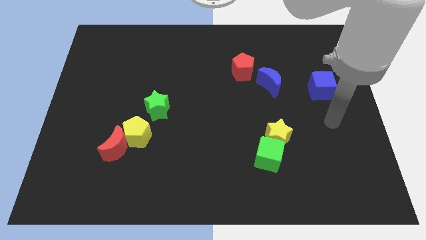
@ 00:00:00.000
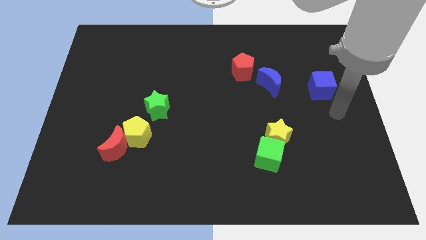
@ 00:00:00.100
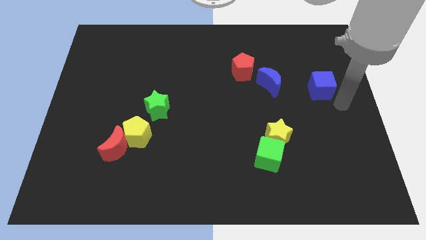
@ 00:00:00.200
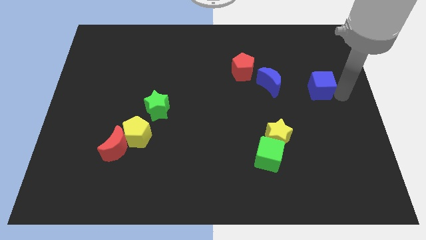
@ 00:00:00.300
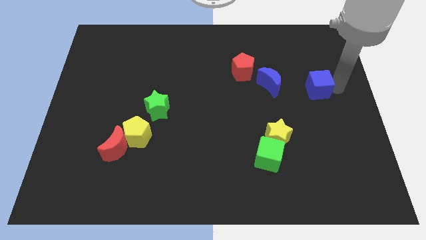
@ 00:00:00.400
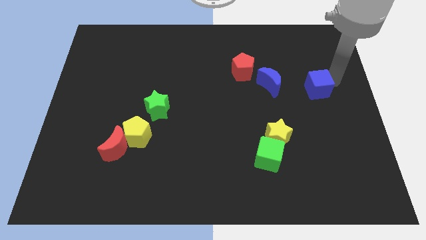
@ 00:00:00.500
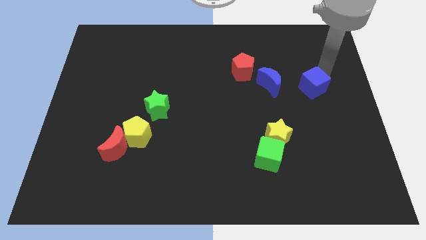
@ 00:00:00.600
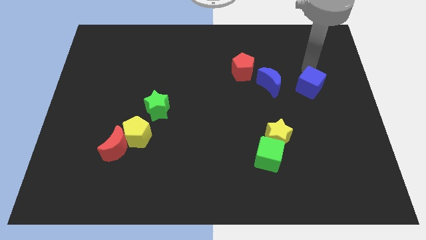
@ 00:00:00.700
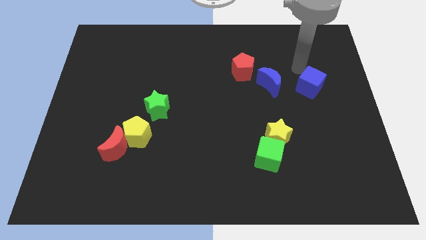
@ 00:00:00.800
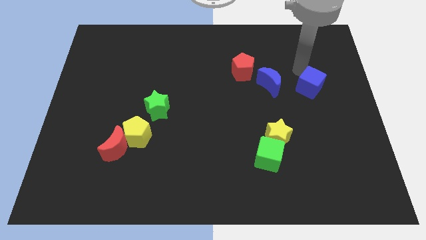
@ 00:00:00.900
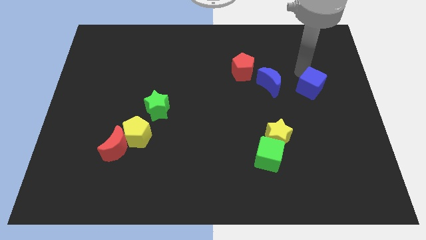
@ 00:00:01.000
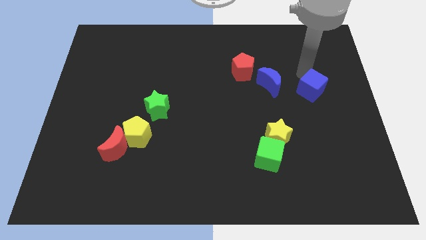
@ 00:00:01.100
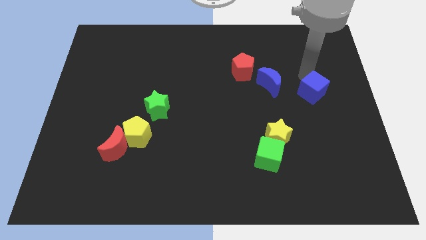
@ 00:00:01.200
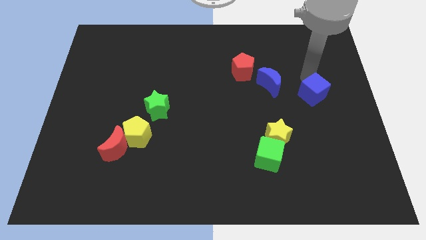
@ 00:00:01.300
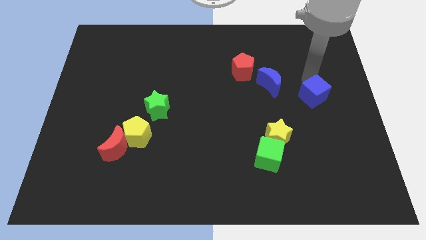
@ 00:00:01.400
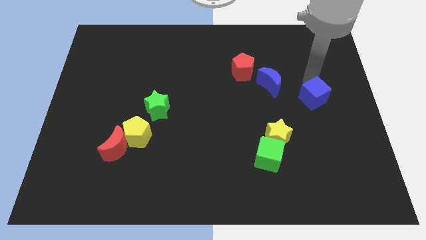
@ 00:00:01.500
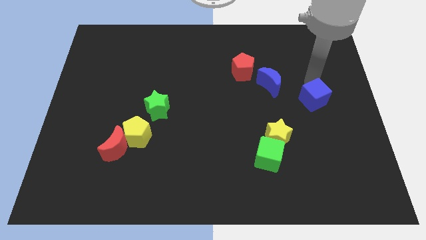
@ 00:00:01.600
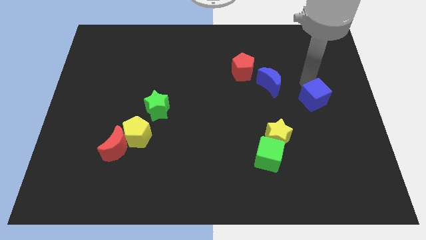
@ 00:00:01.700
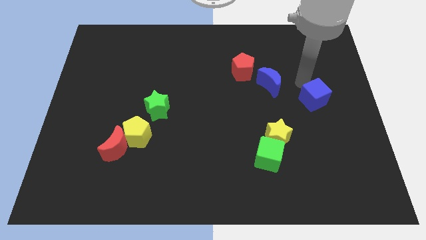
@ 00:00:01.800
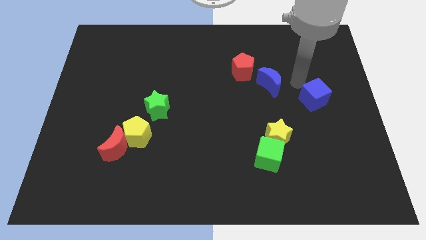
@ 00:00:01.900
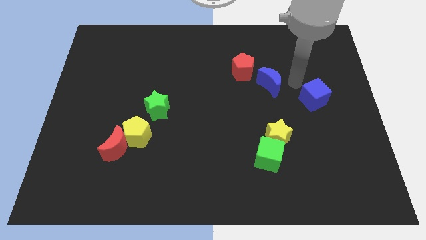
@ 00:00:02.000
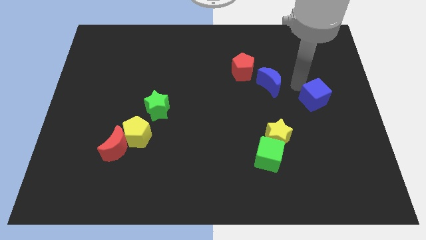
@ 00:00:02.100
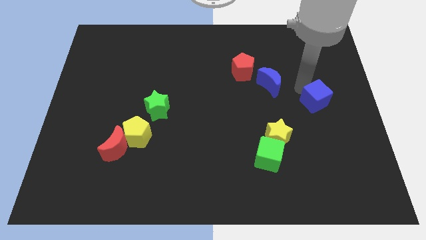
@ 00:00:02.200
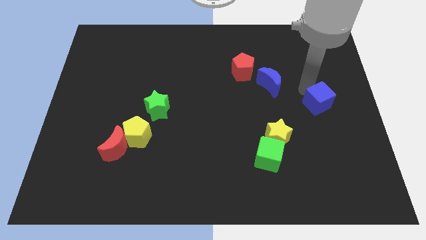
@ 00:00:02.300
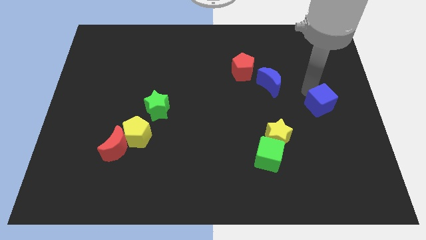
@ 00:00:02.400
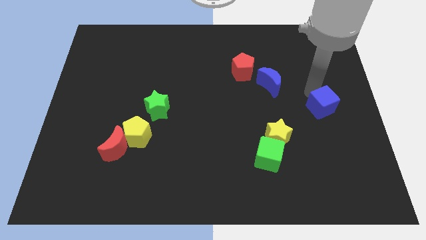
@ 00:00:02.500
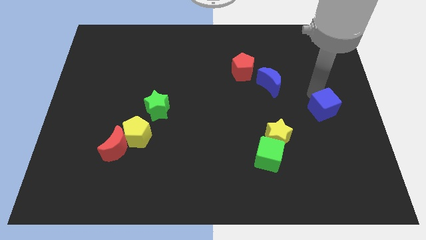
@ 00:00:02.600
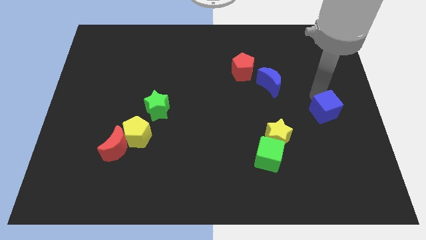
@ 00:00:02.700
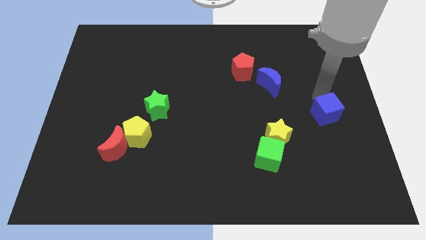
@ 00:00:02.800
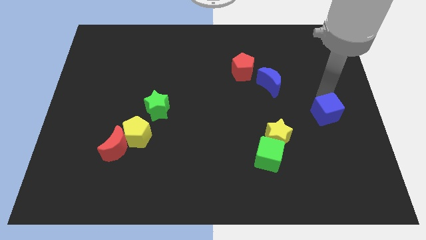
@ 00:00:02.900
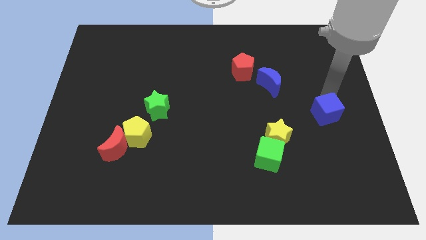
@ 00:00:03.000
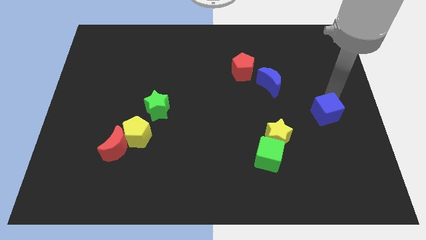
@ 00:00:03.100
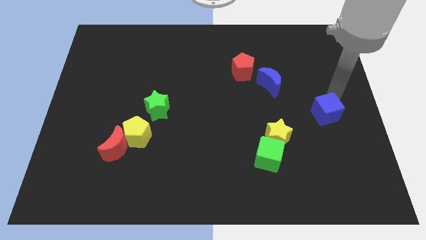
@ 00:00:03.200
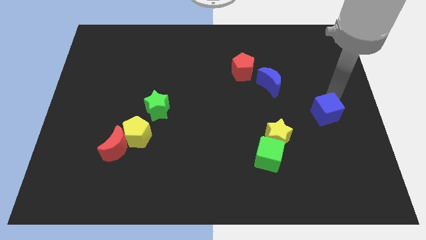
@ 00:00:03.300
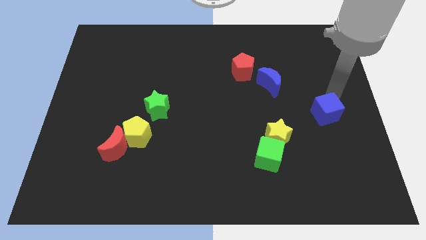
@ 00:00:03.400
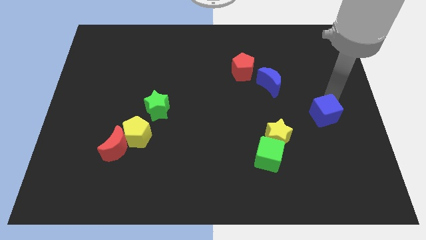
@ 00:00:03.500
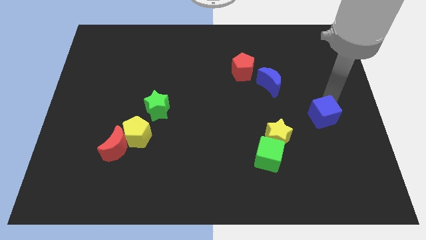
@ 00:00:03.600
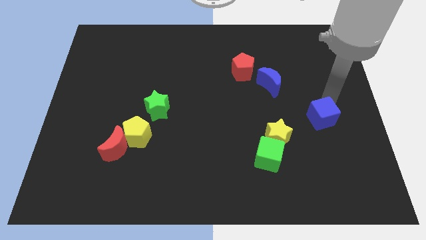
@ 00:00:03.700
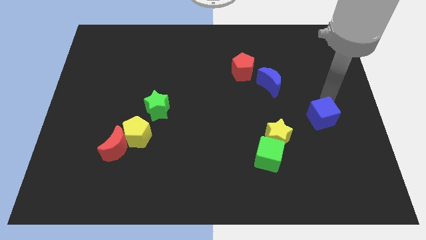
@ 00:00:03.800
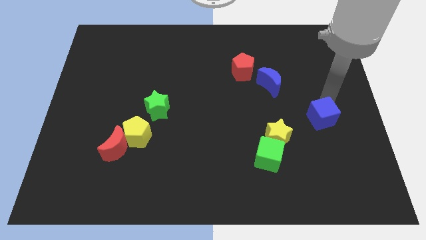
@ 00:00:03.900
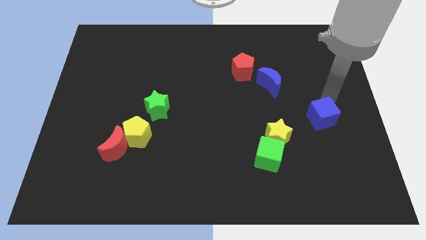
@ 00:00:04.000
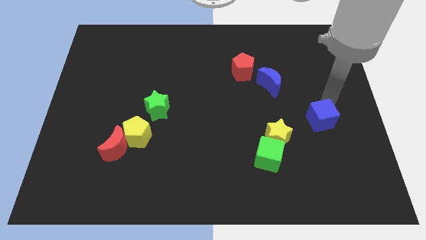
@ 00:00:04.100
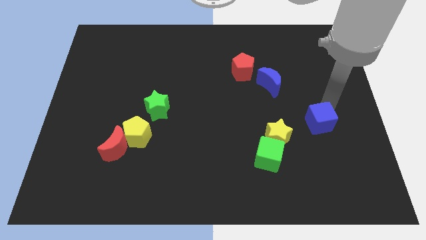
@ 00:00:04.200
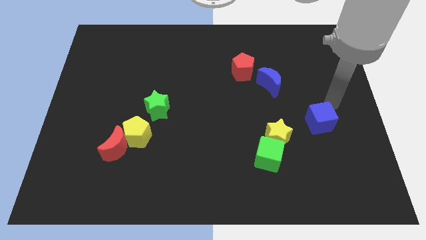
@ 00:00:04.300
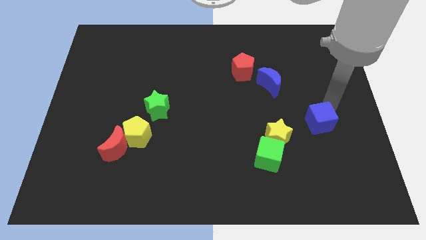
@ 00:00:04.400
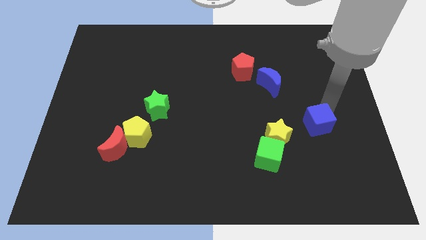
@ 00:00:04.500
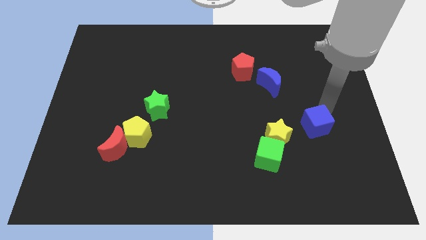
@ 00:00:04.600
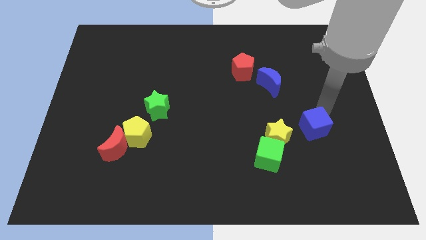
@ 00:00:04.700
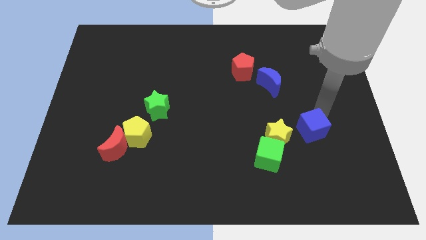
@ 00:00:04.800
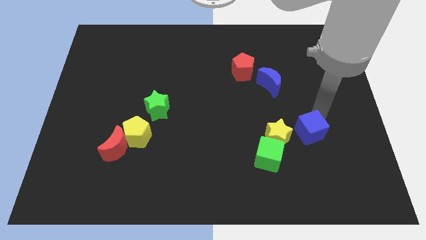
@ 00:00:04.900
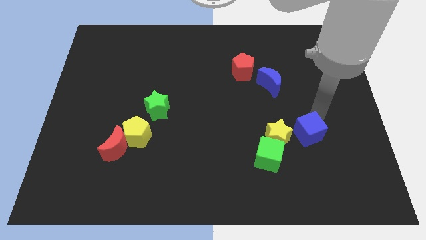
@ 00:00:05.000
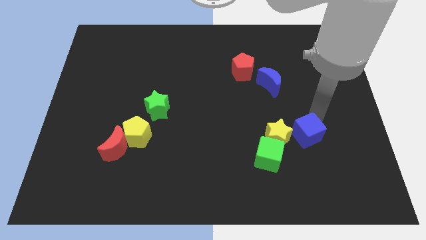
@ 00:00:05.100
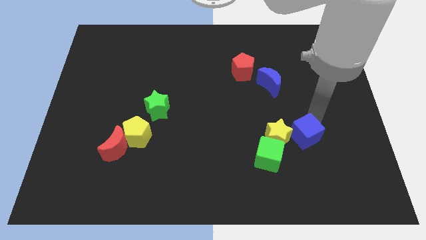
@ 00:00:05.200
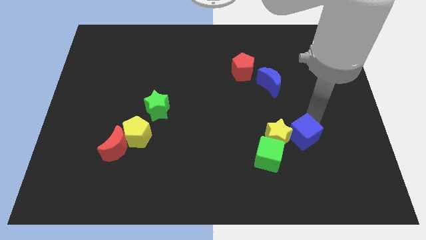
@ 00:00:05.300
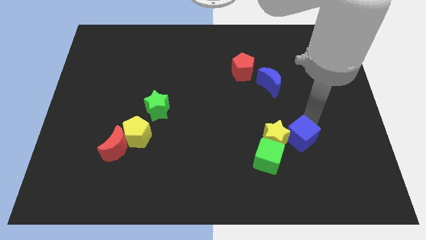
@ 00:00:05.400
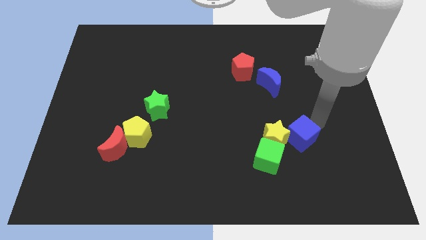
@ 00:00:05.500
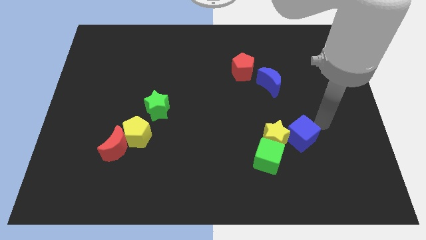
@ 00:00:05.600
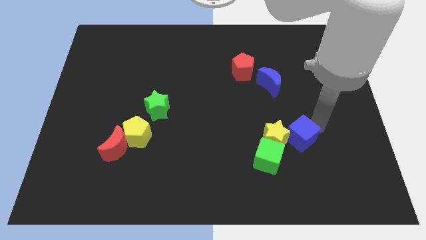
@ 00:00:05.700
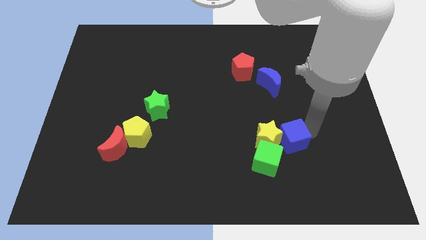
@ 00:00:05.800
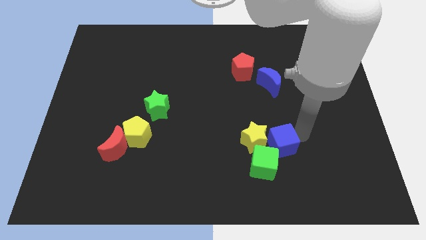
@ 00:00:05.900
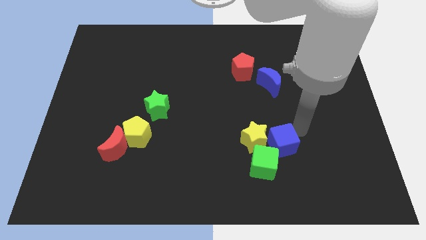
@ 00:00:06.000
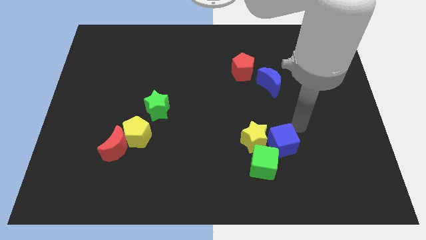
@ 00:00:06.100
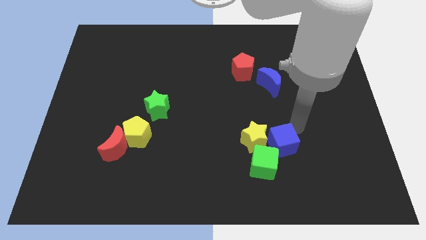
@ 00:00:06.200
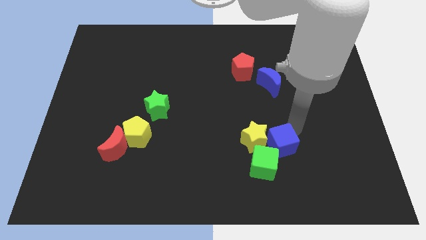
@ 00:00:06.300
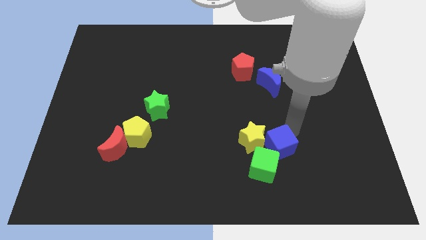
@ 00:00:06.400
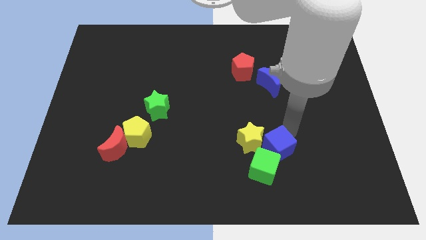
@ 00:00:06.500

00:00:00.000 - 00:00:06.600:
push the blue cube to the green cube
